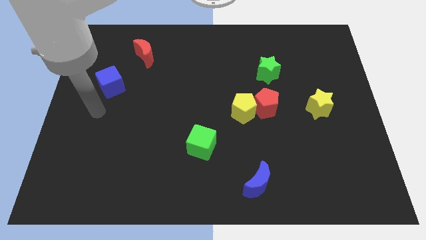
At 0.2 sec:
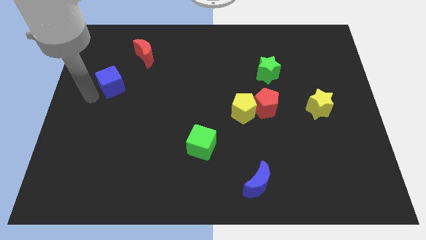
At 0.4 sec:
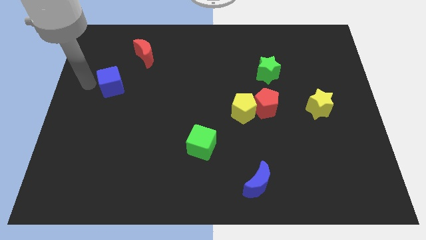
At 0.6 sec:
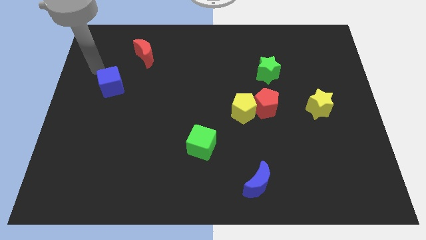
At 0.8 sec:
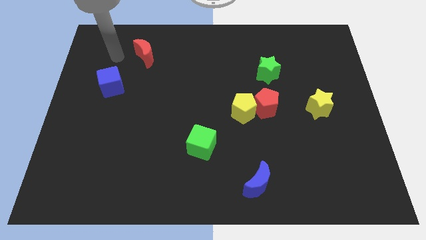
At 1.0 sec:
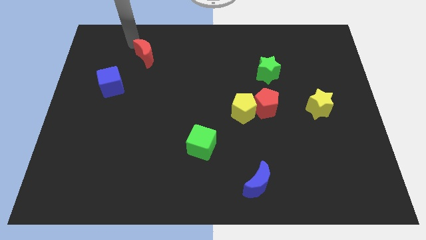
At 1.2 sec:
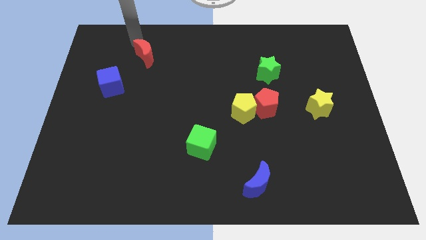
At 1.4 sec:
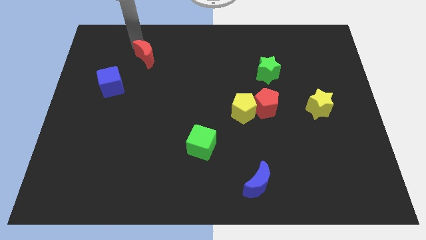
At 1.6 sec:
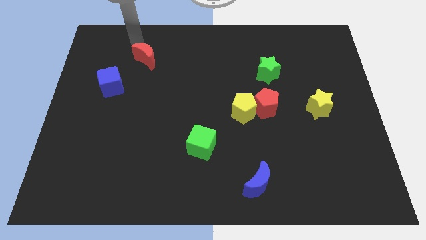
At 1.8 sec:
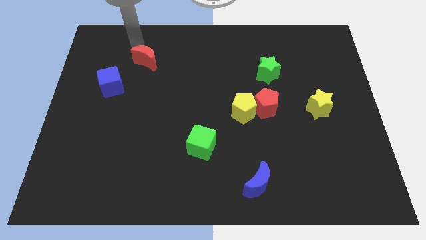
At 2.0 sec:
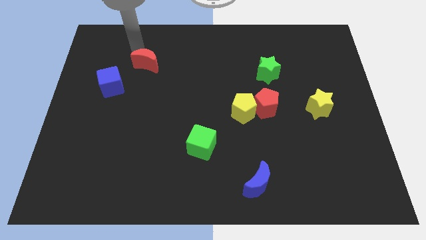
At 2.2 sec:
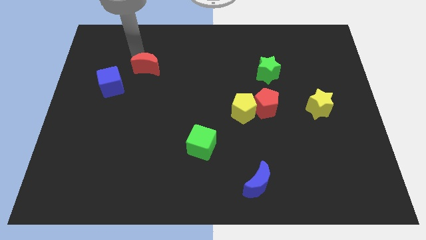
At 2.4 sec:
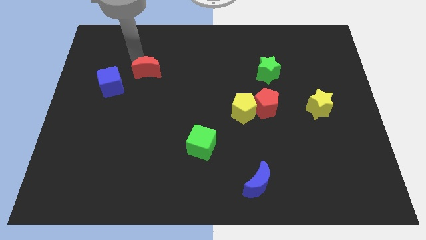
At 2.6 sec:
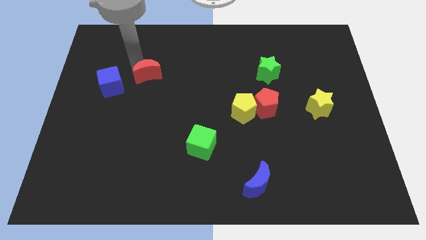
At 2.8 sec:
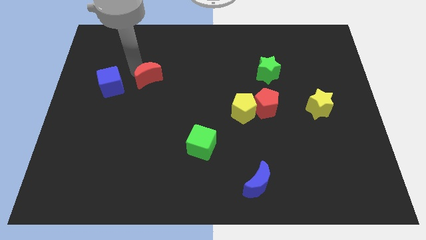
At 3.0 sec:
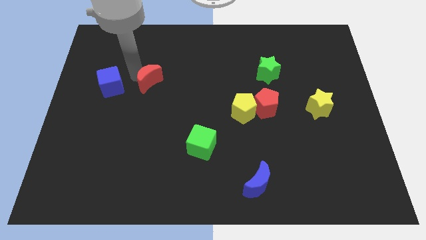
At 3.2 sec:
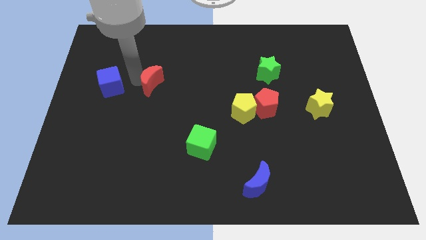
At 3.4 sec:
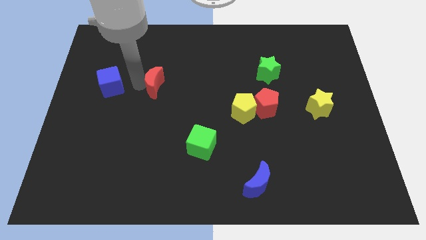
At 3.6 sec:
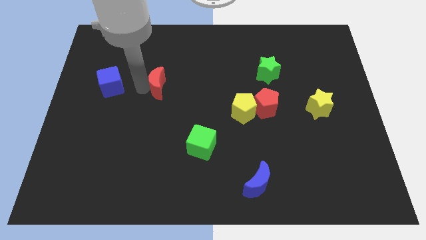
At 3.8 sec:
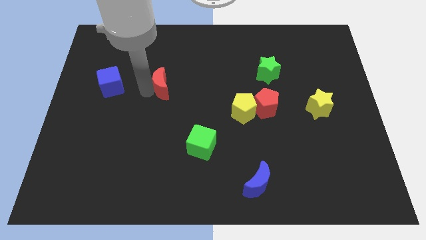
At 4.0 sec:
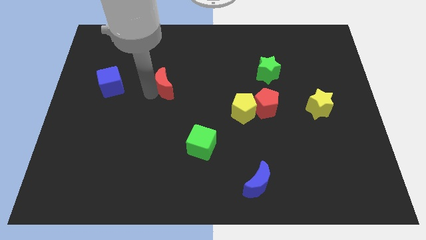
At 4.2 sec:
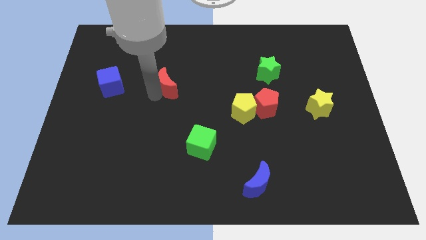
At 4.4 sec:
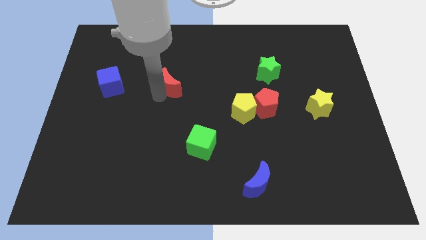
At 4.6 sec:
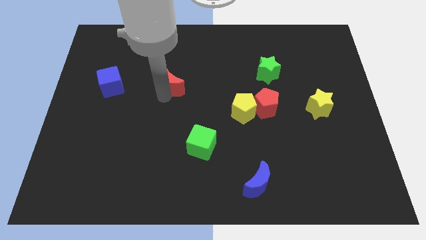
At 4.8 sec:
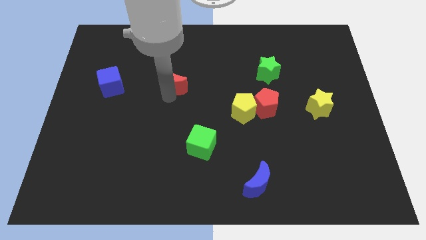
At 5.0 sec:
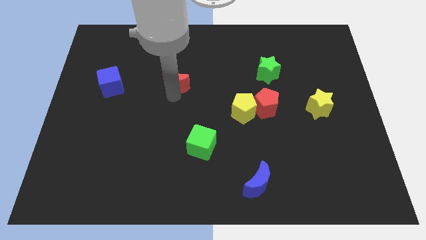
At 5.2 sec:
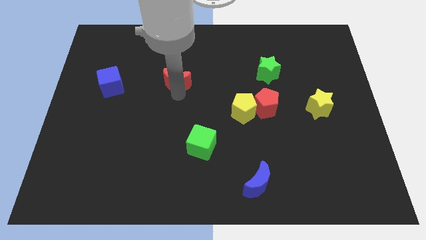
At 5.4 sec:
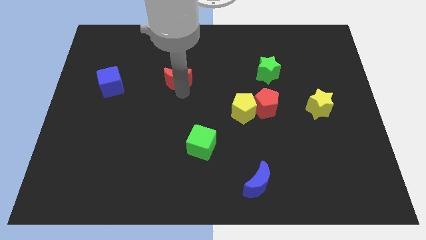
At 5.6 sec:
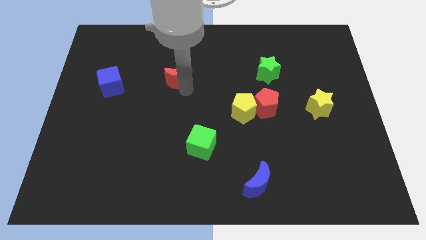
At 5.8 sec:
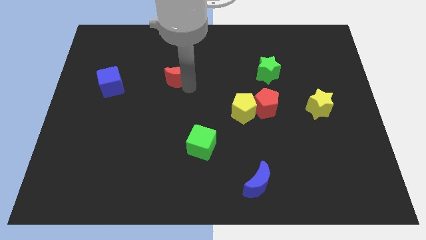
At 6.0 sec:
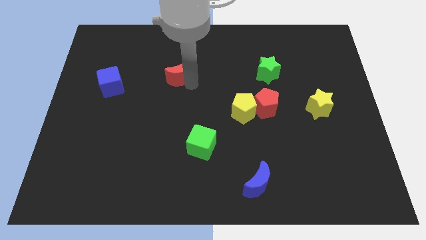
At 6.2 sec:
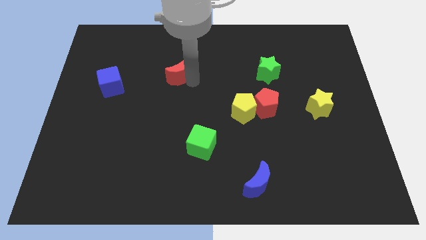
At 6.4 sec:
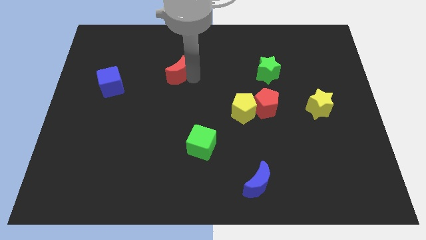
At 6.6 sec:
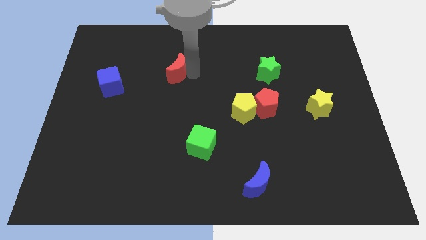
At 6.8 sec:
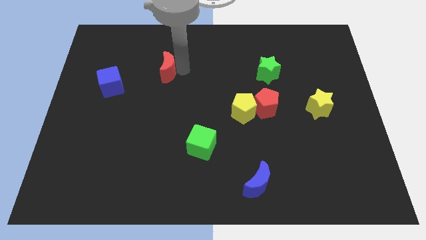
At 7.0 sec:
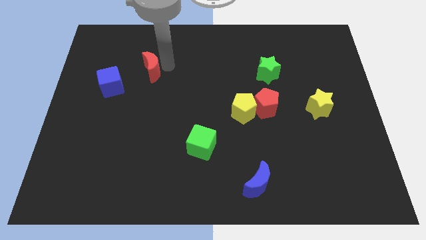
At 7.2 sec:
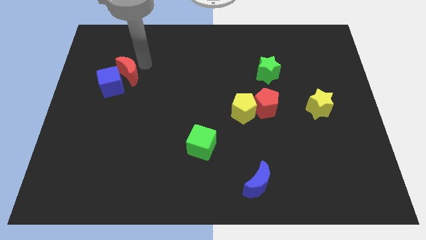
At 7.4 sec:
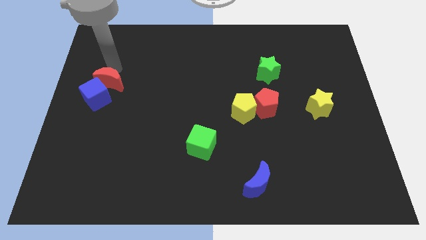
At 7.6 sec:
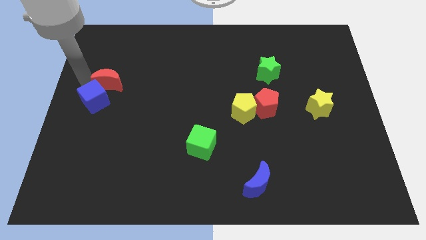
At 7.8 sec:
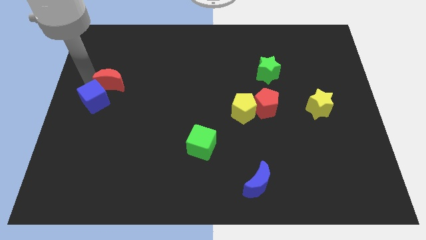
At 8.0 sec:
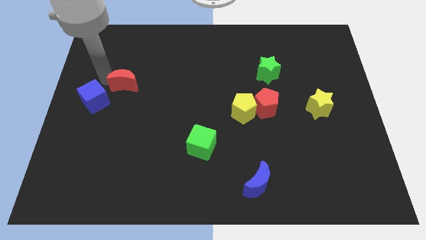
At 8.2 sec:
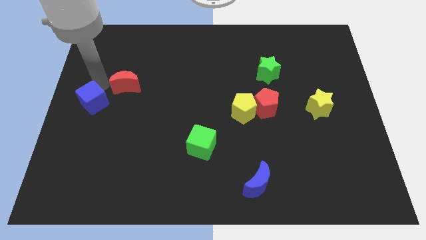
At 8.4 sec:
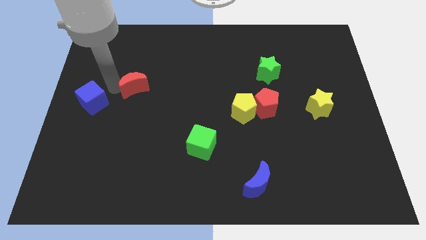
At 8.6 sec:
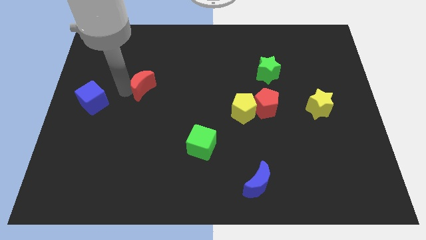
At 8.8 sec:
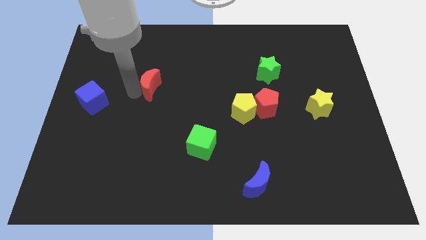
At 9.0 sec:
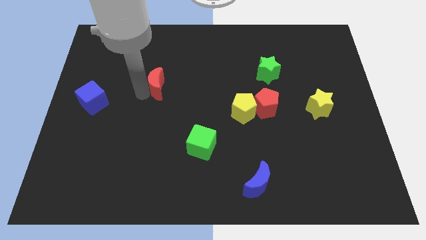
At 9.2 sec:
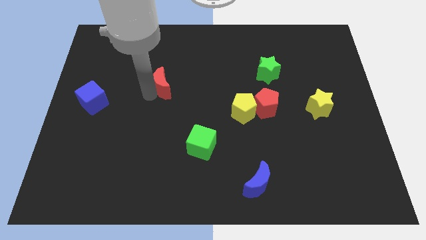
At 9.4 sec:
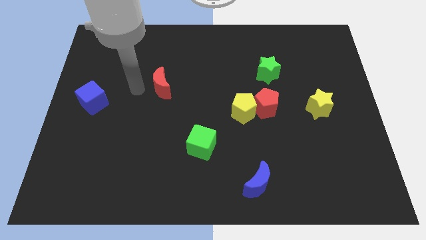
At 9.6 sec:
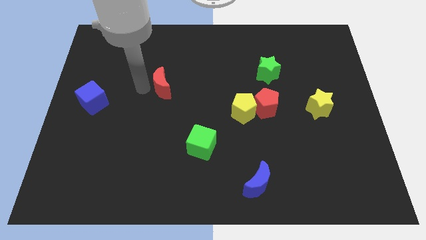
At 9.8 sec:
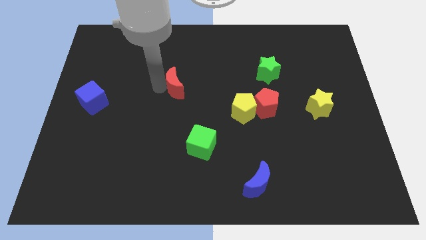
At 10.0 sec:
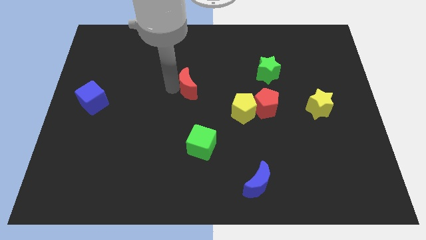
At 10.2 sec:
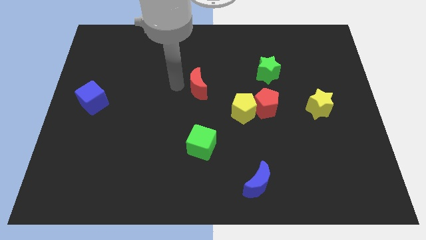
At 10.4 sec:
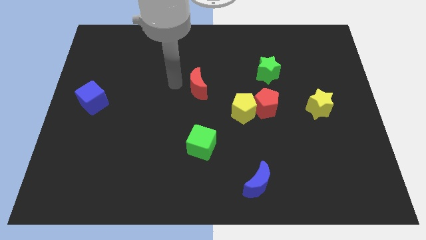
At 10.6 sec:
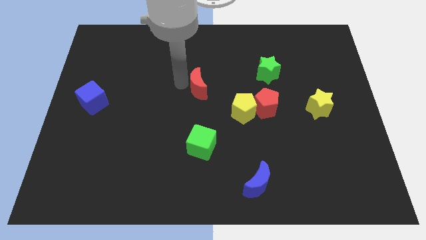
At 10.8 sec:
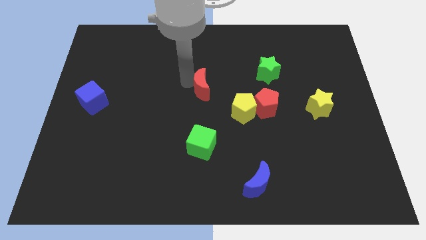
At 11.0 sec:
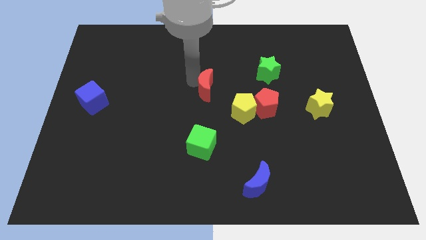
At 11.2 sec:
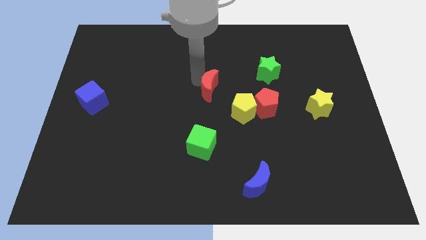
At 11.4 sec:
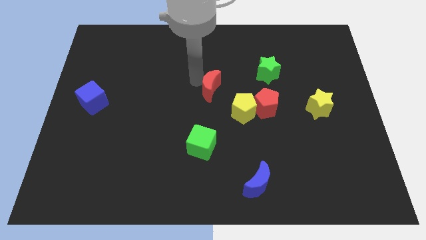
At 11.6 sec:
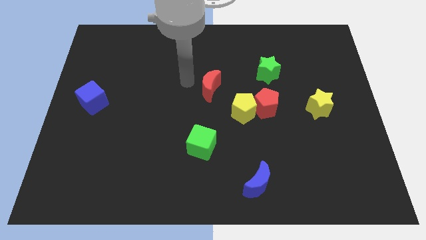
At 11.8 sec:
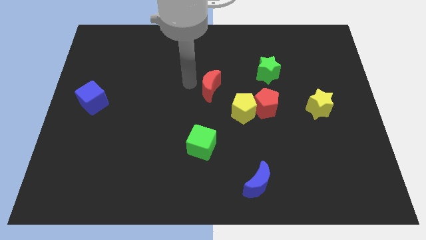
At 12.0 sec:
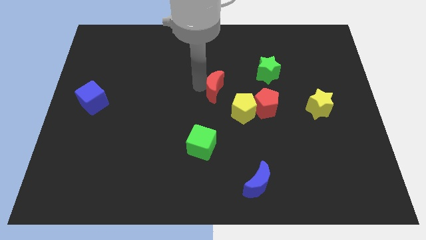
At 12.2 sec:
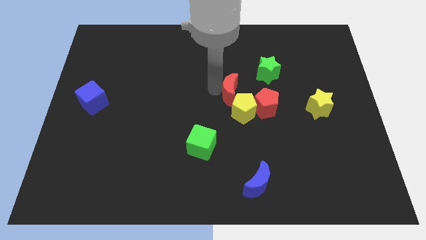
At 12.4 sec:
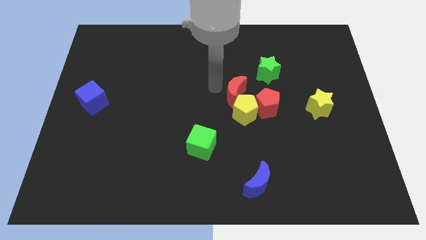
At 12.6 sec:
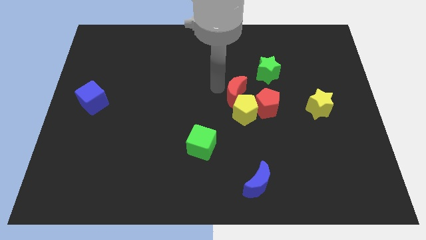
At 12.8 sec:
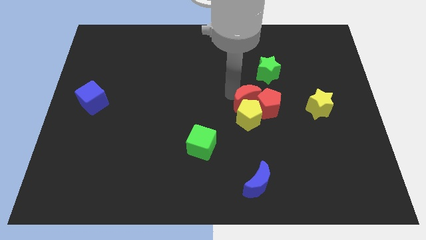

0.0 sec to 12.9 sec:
put the red moon to the red pentagon

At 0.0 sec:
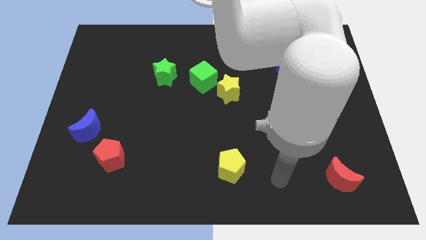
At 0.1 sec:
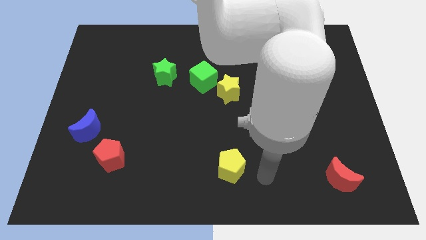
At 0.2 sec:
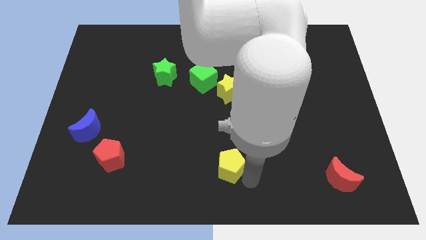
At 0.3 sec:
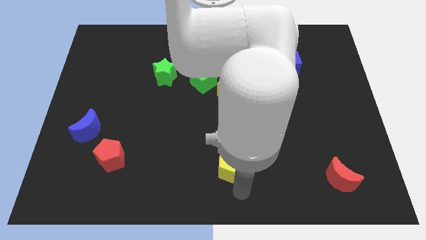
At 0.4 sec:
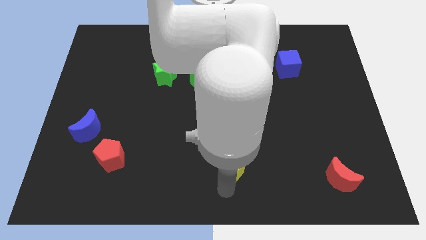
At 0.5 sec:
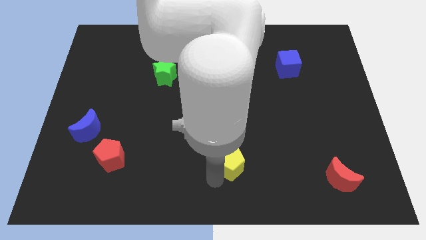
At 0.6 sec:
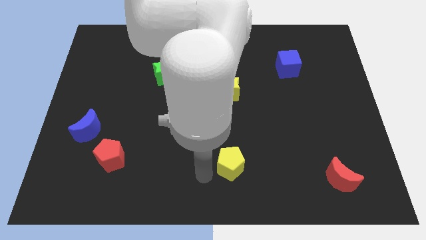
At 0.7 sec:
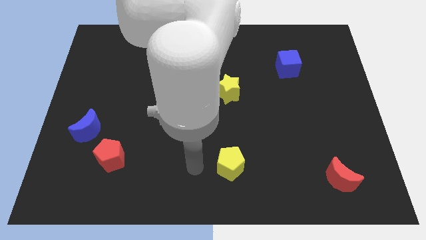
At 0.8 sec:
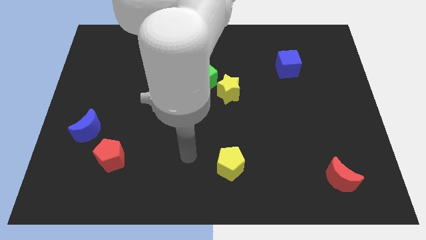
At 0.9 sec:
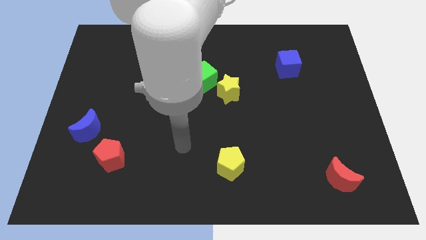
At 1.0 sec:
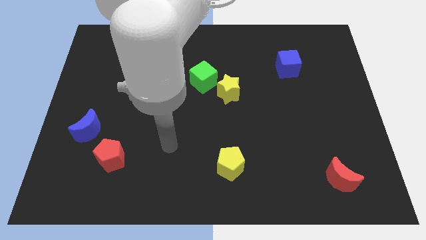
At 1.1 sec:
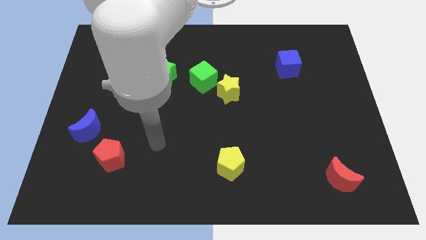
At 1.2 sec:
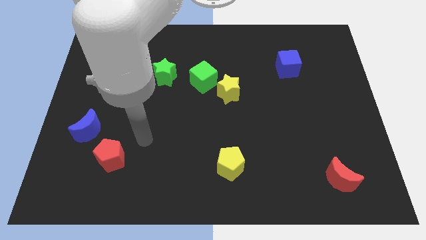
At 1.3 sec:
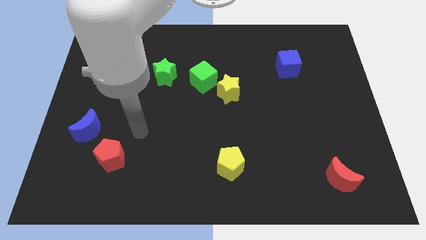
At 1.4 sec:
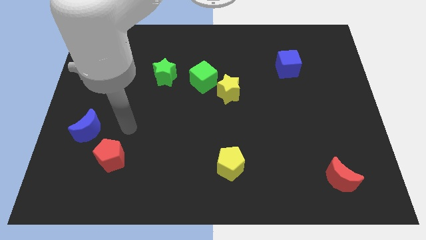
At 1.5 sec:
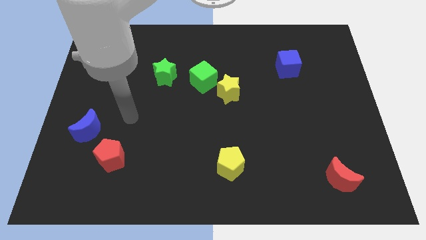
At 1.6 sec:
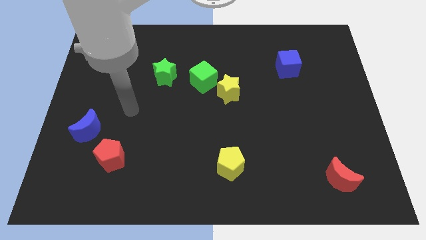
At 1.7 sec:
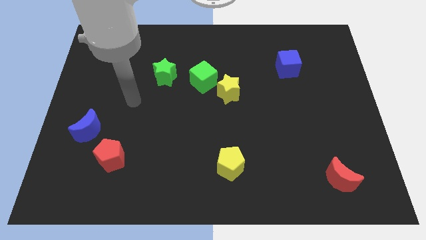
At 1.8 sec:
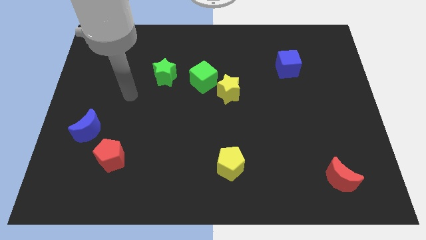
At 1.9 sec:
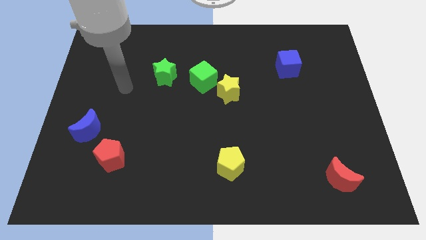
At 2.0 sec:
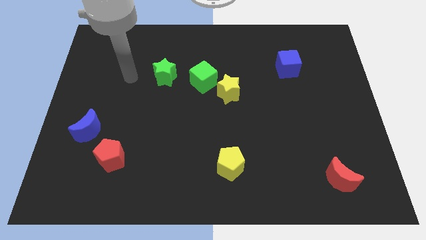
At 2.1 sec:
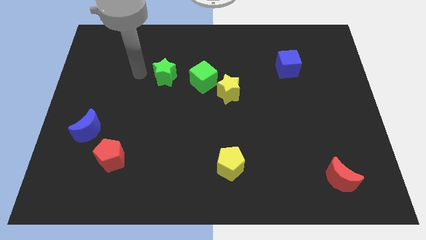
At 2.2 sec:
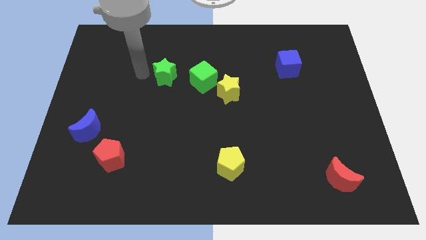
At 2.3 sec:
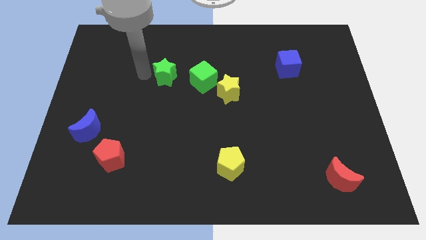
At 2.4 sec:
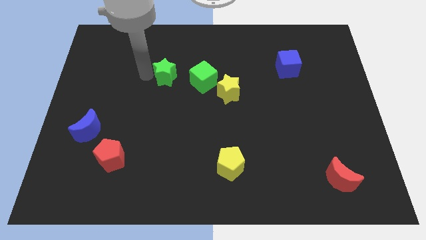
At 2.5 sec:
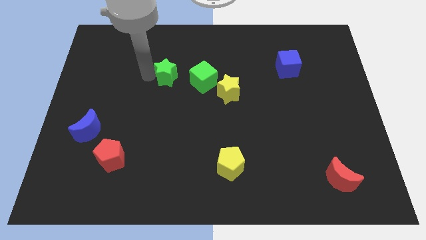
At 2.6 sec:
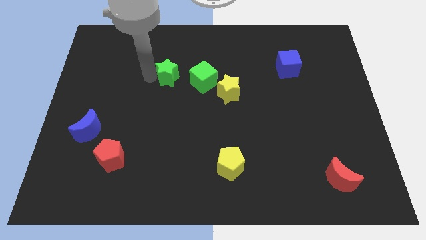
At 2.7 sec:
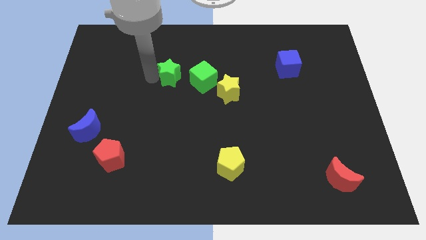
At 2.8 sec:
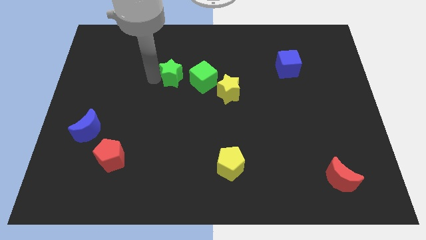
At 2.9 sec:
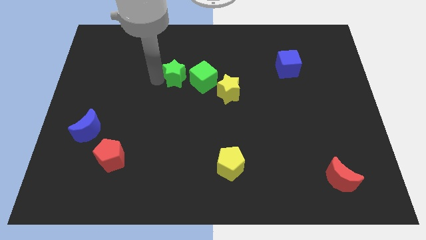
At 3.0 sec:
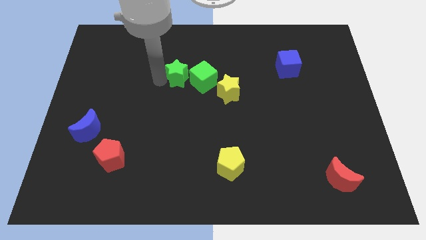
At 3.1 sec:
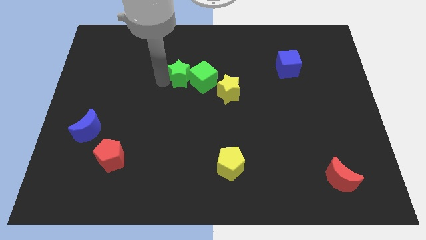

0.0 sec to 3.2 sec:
push the green star towards the green cube
